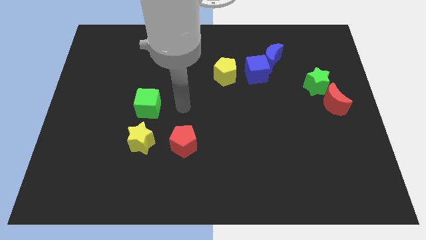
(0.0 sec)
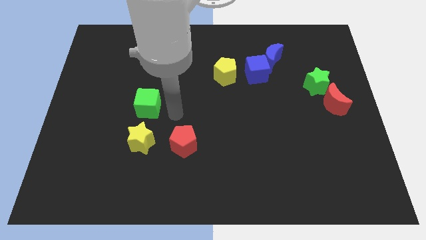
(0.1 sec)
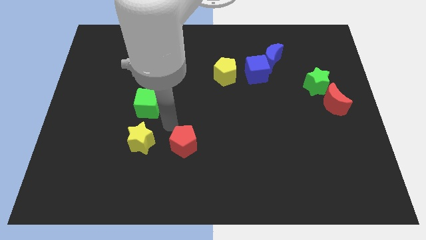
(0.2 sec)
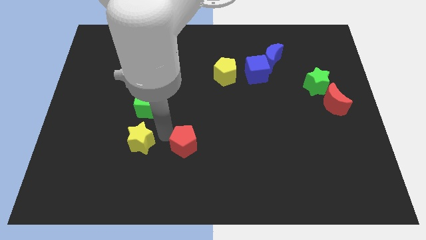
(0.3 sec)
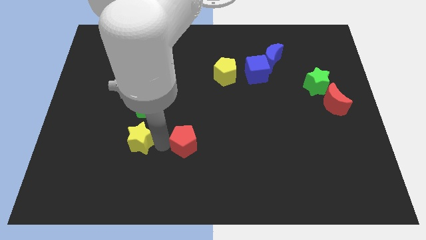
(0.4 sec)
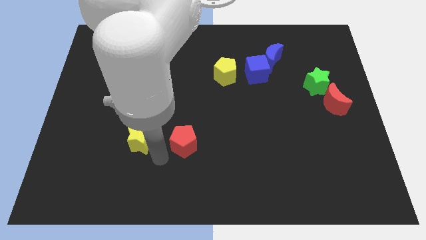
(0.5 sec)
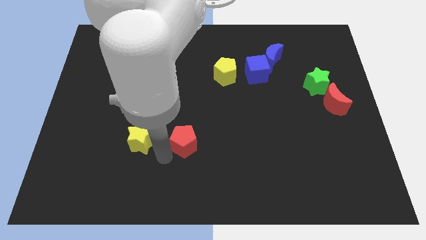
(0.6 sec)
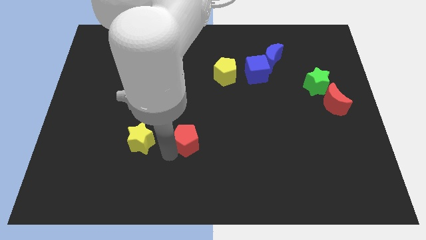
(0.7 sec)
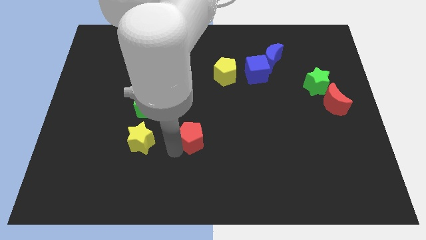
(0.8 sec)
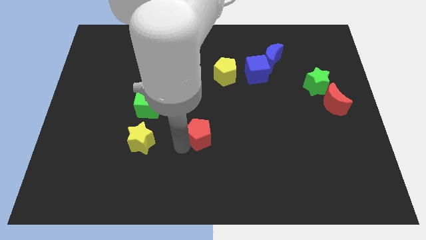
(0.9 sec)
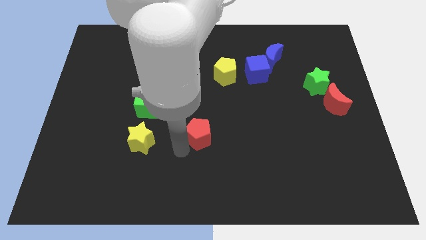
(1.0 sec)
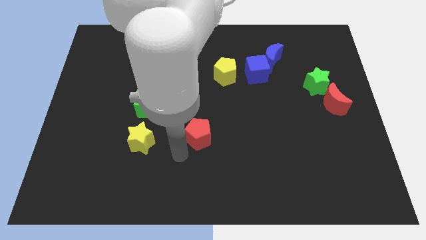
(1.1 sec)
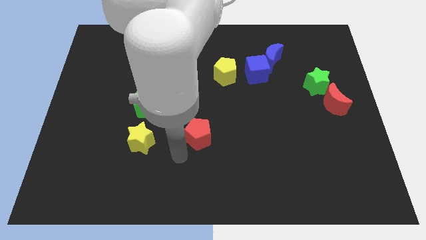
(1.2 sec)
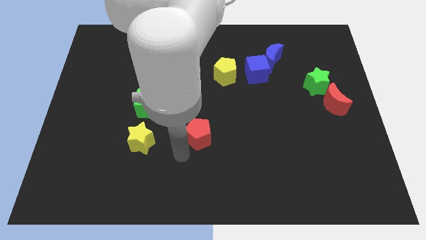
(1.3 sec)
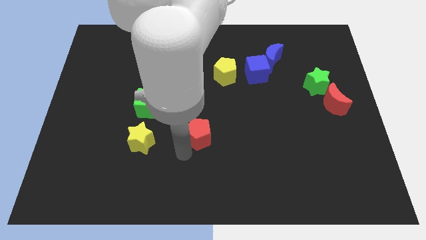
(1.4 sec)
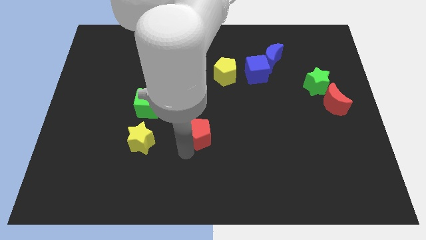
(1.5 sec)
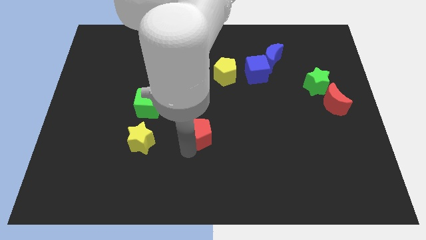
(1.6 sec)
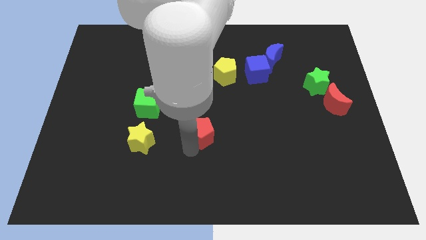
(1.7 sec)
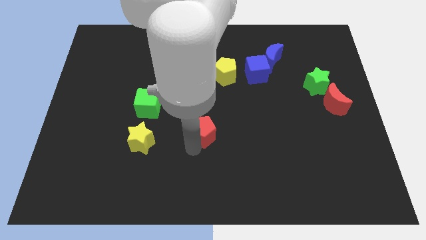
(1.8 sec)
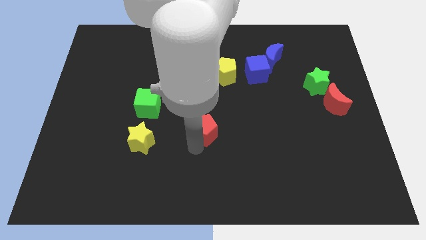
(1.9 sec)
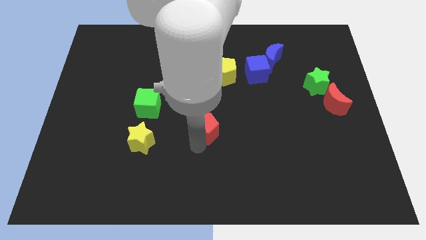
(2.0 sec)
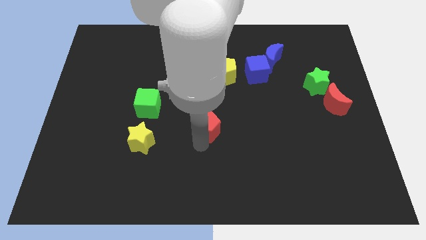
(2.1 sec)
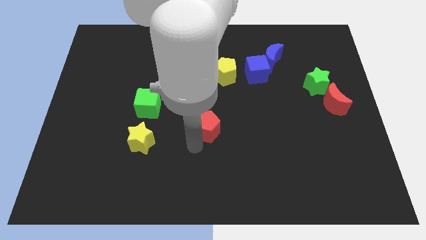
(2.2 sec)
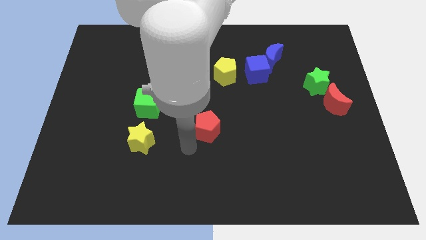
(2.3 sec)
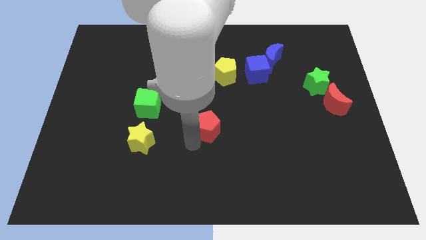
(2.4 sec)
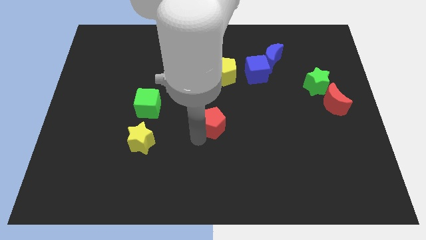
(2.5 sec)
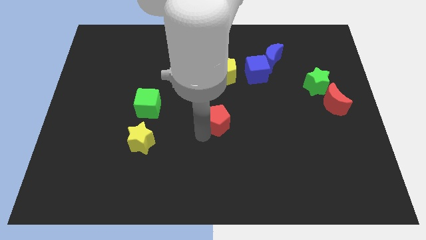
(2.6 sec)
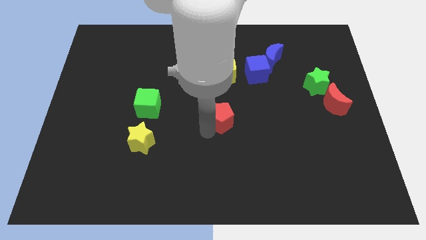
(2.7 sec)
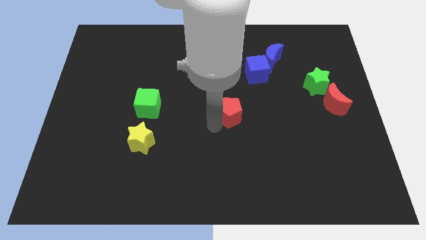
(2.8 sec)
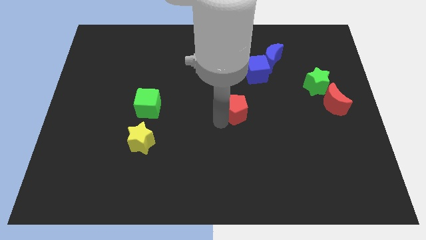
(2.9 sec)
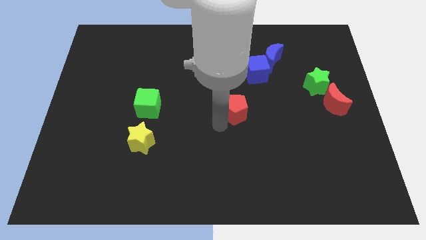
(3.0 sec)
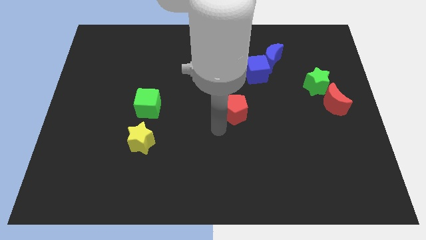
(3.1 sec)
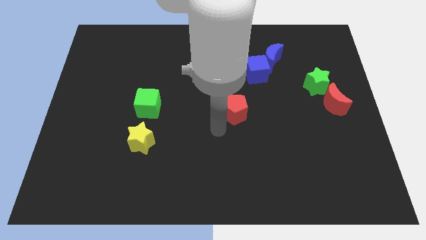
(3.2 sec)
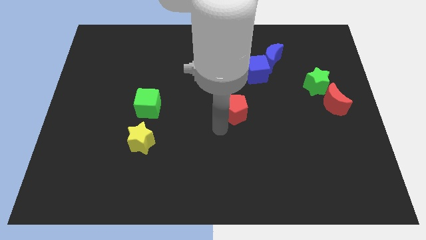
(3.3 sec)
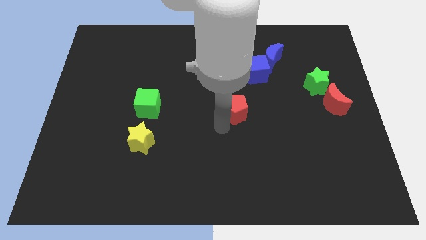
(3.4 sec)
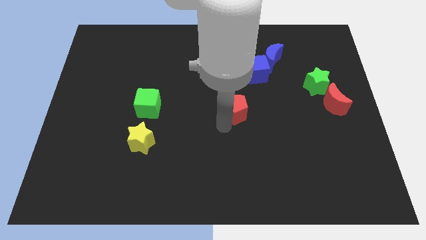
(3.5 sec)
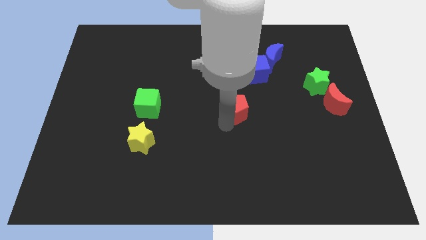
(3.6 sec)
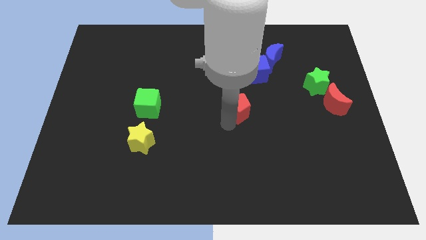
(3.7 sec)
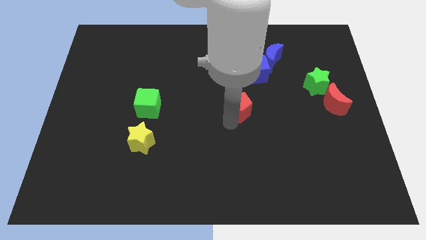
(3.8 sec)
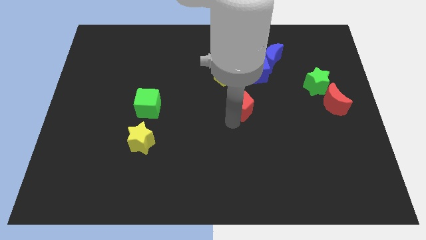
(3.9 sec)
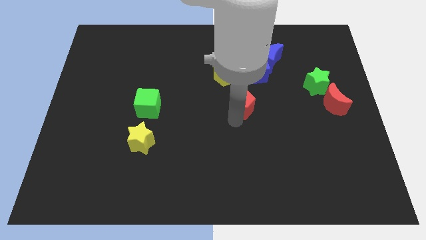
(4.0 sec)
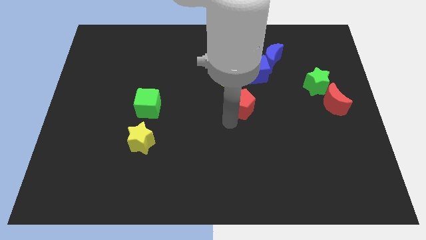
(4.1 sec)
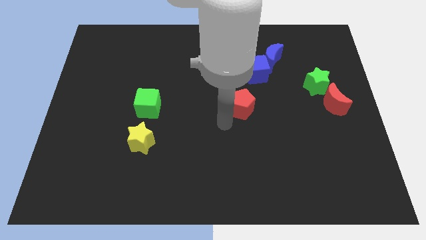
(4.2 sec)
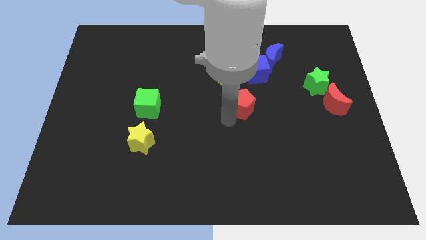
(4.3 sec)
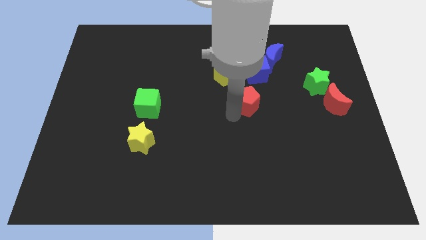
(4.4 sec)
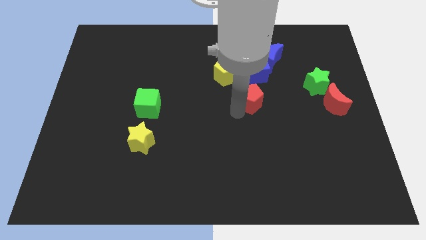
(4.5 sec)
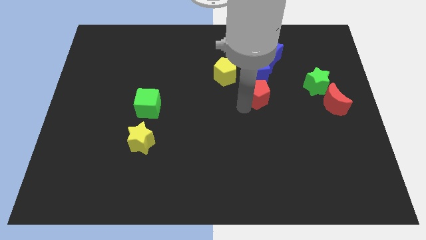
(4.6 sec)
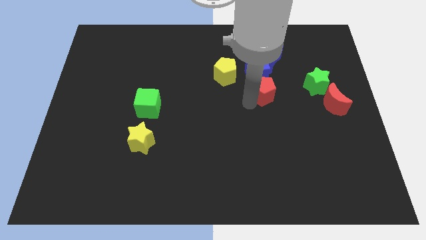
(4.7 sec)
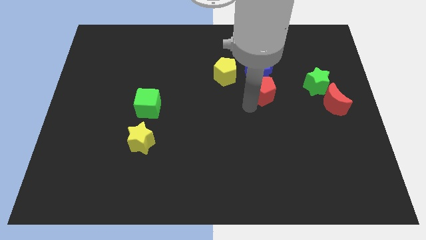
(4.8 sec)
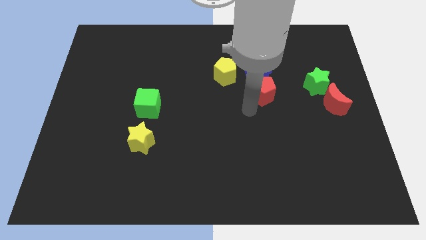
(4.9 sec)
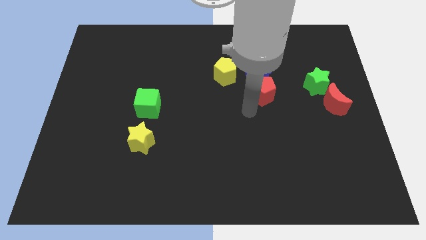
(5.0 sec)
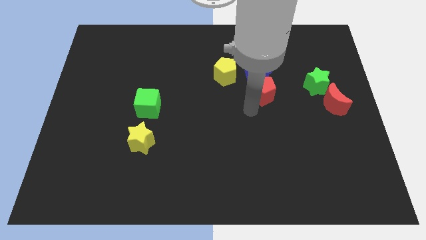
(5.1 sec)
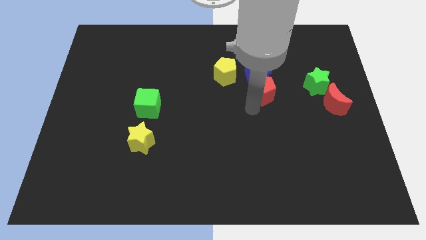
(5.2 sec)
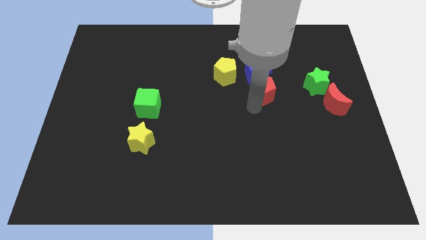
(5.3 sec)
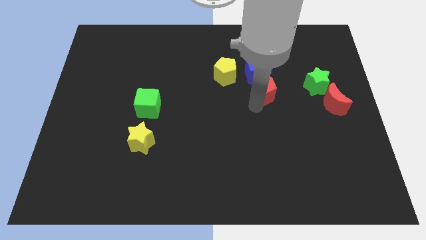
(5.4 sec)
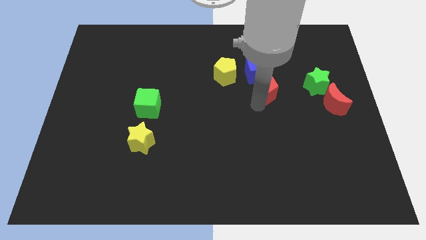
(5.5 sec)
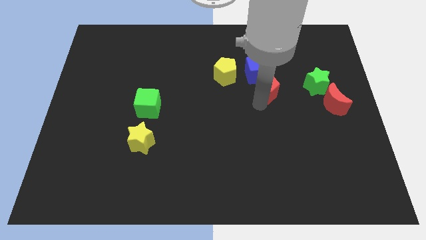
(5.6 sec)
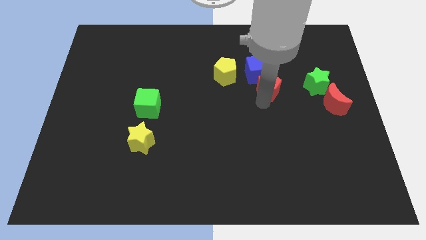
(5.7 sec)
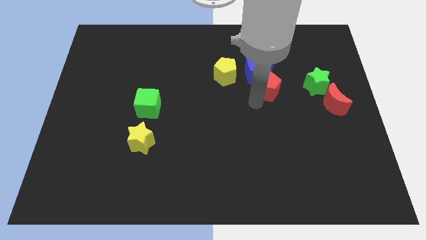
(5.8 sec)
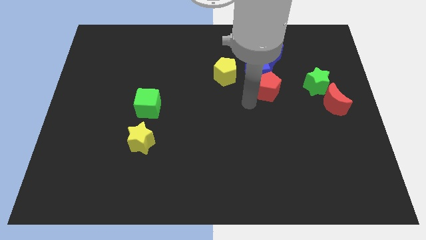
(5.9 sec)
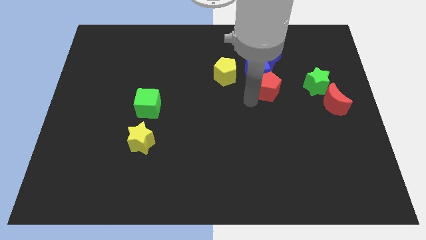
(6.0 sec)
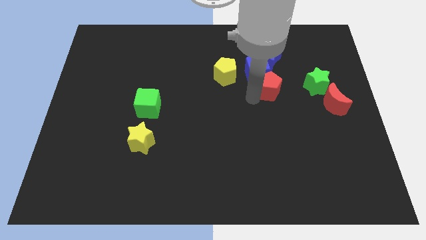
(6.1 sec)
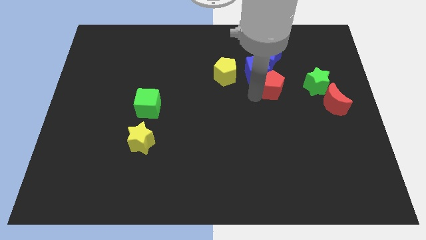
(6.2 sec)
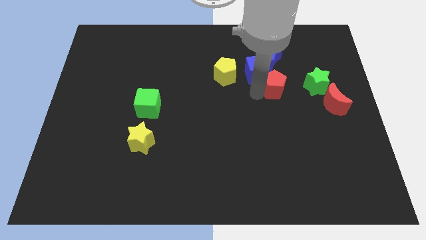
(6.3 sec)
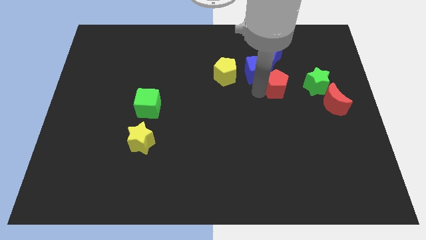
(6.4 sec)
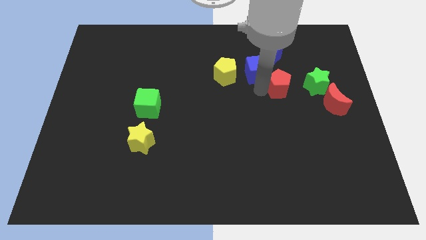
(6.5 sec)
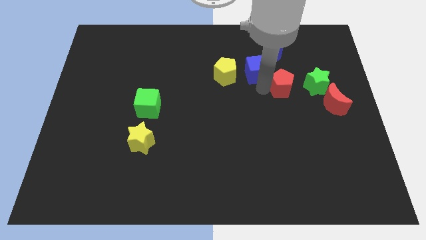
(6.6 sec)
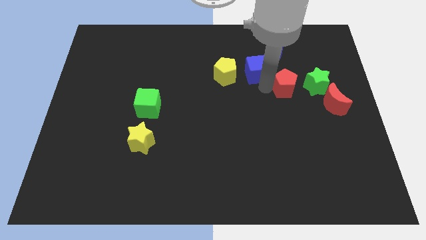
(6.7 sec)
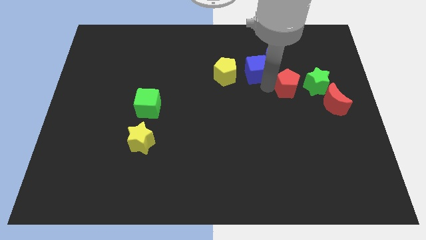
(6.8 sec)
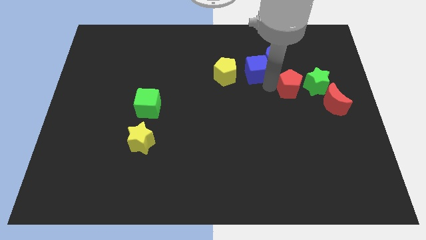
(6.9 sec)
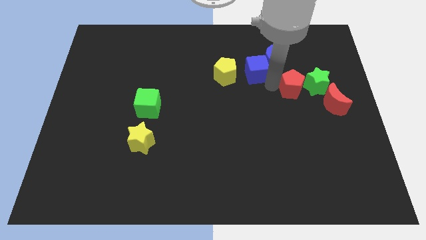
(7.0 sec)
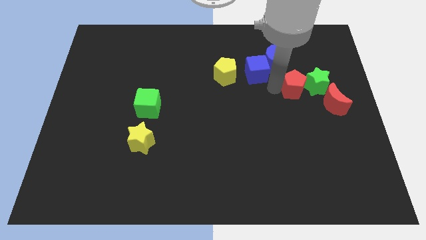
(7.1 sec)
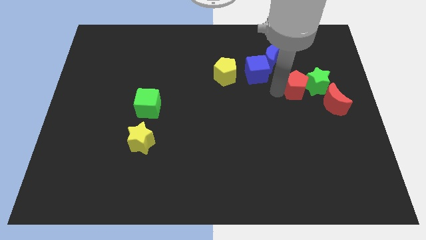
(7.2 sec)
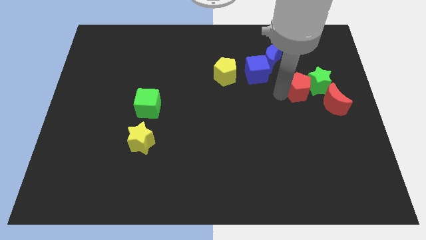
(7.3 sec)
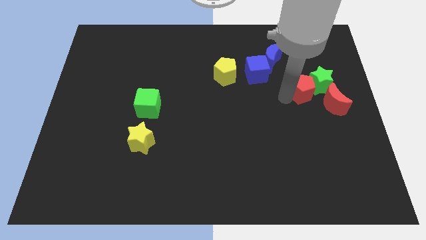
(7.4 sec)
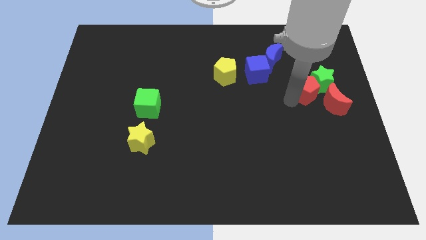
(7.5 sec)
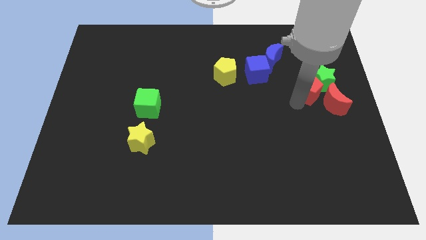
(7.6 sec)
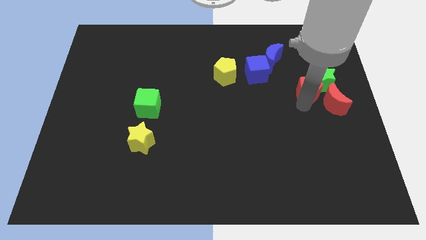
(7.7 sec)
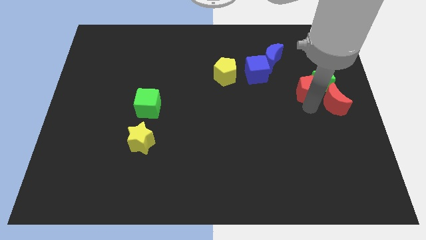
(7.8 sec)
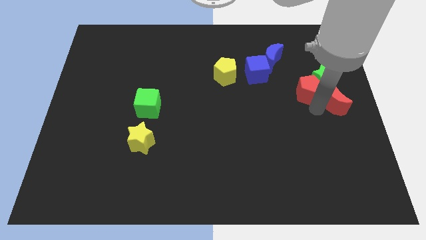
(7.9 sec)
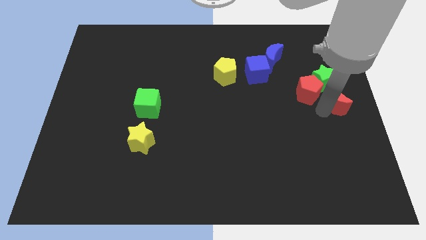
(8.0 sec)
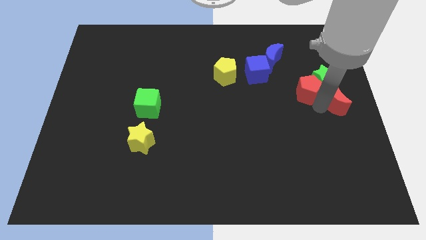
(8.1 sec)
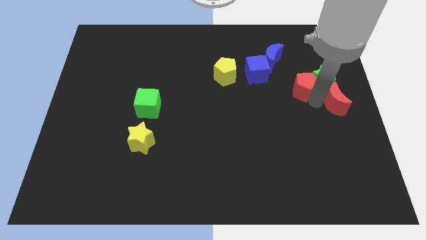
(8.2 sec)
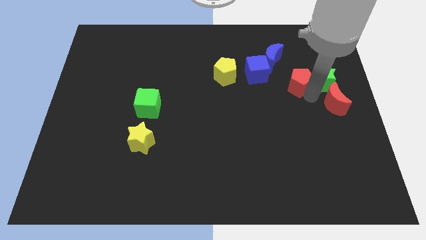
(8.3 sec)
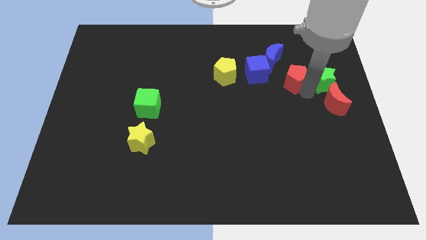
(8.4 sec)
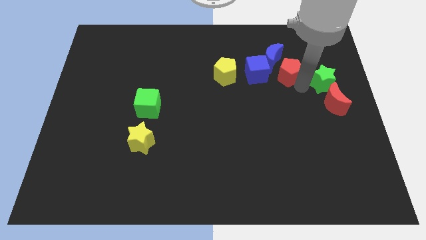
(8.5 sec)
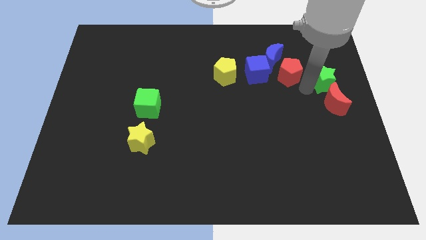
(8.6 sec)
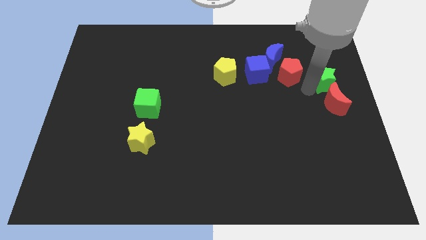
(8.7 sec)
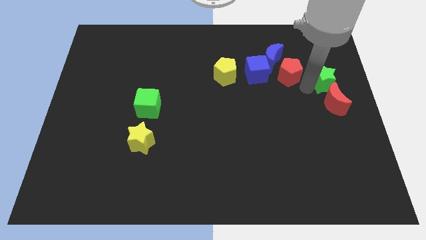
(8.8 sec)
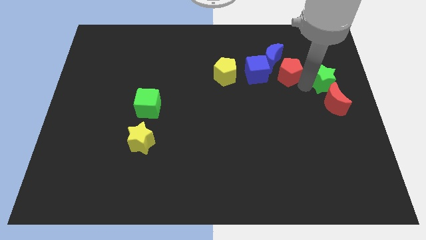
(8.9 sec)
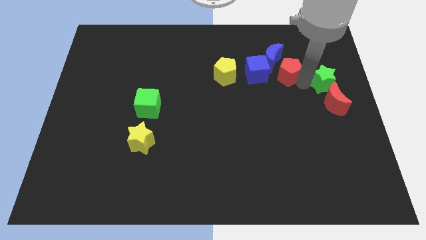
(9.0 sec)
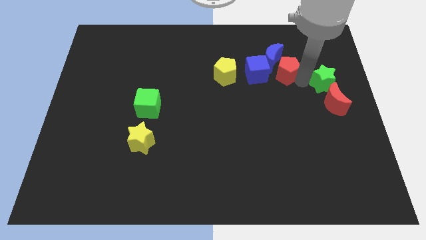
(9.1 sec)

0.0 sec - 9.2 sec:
put the red pentagon towards the blue moon
